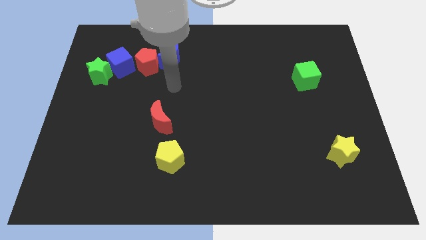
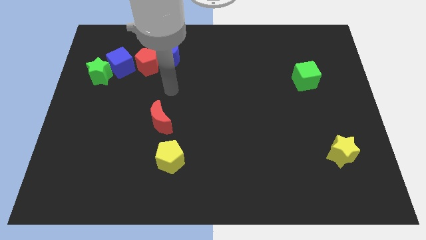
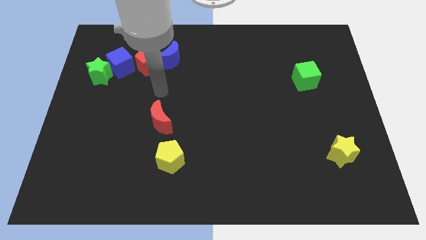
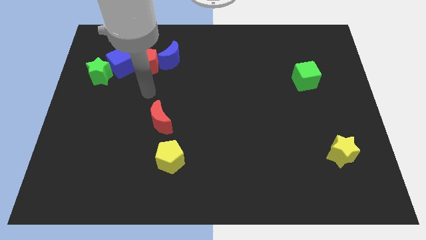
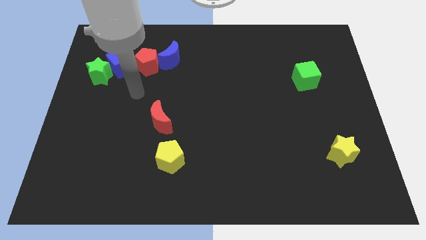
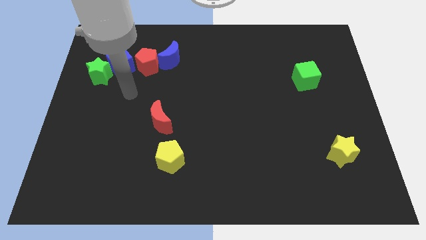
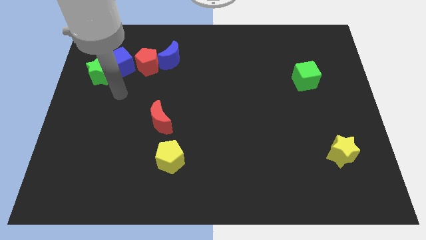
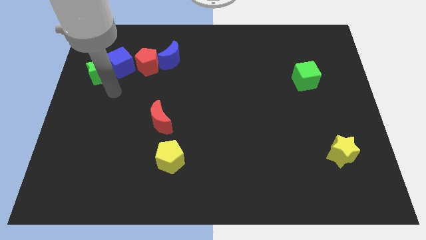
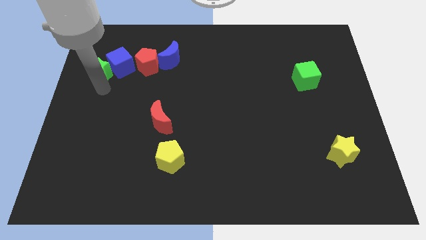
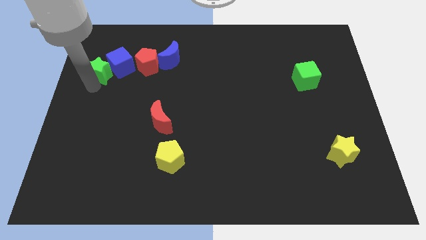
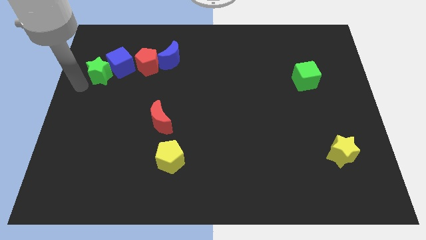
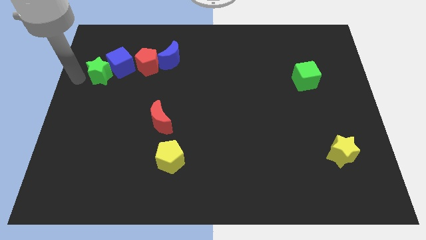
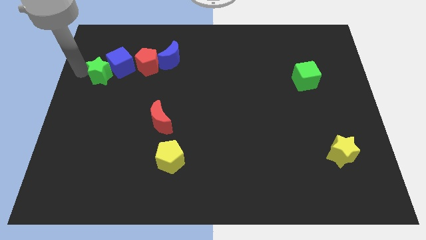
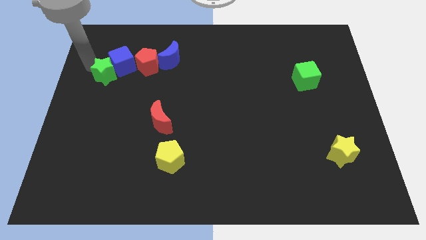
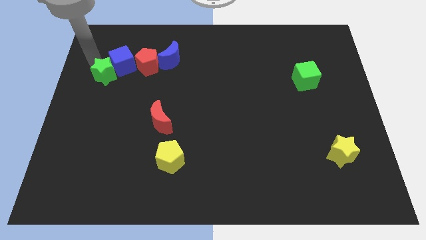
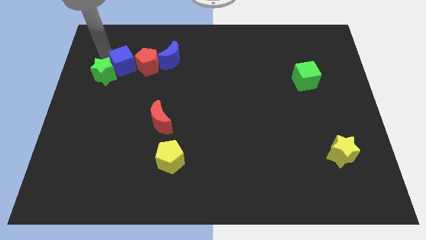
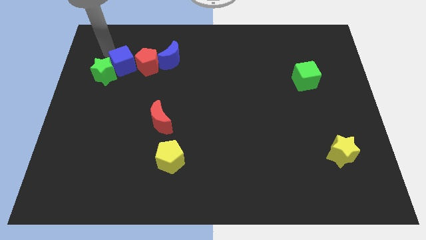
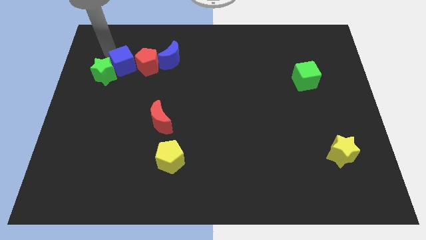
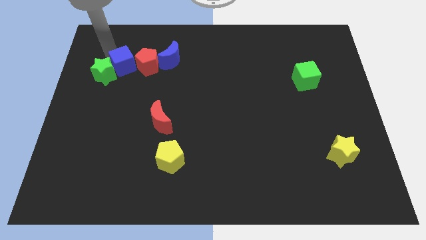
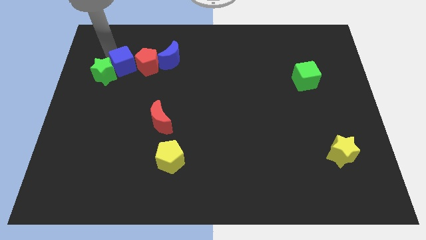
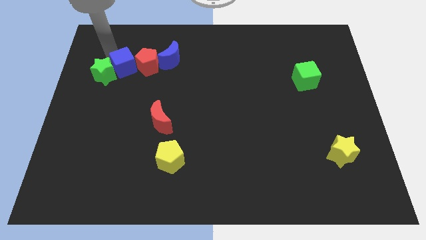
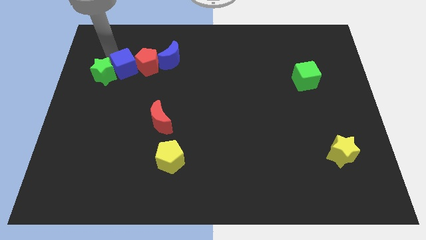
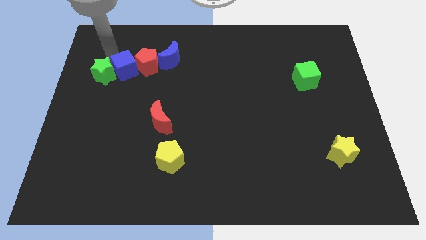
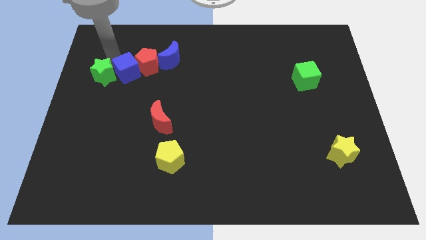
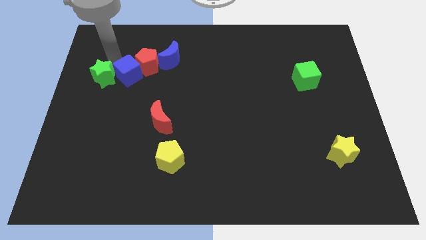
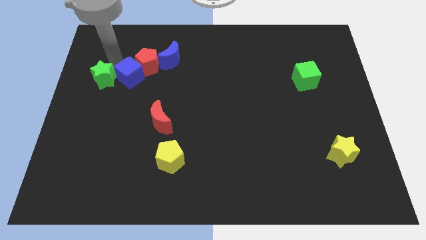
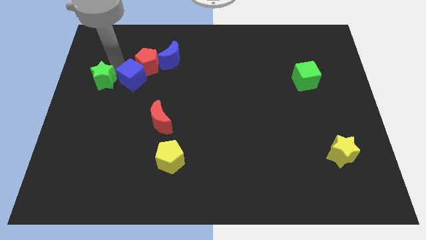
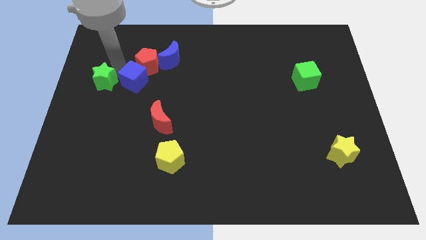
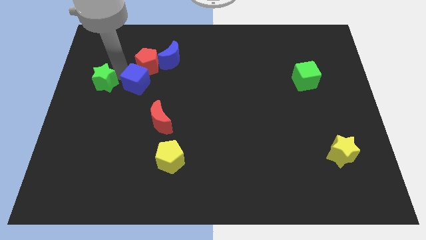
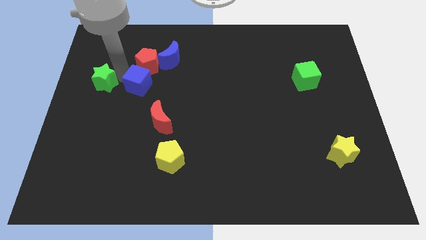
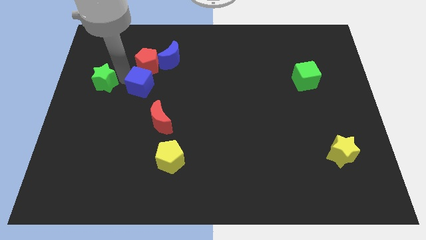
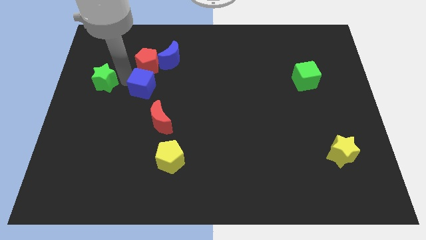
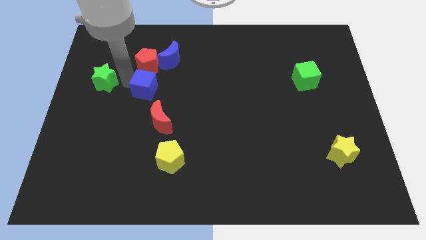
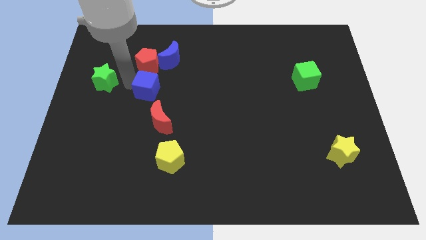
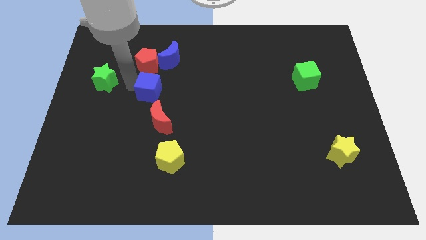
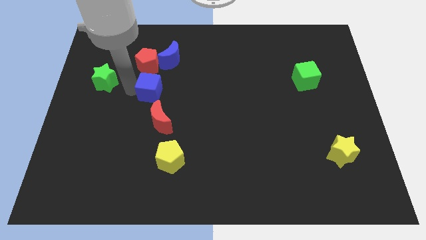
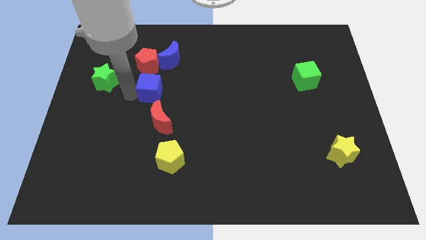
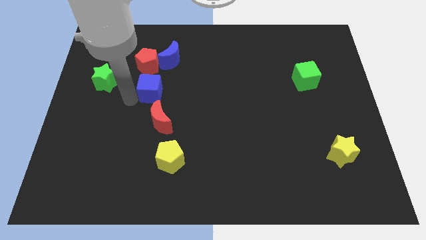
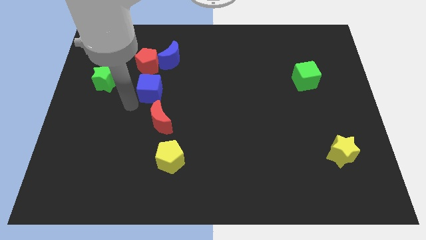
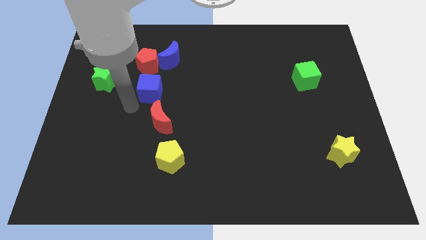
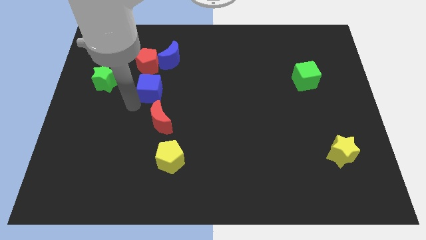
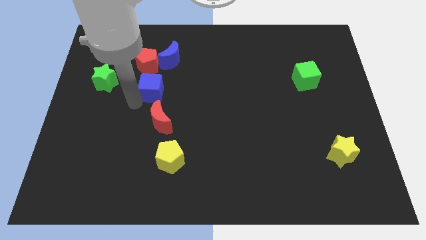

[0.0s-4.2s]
slide the blue cube diagonally down and to the right of the red pentagon

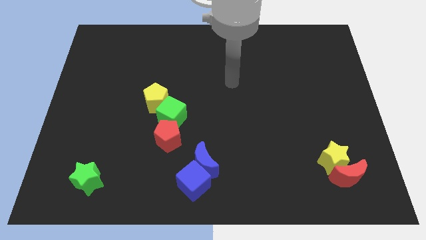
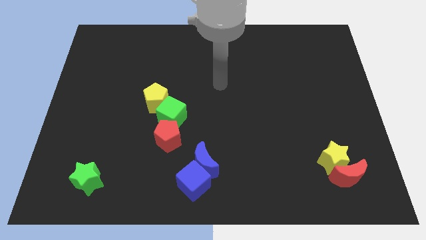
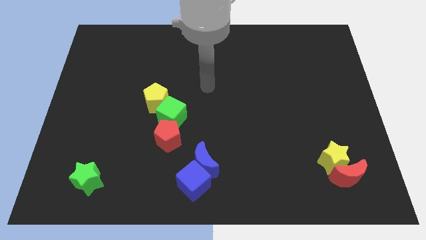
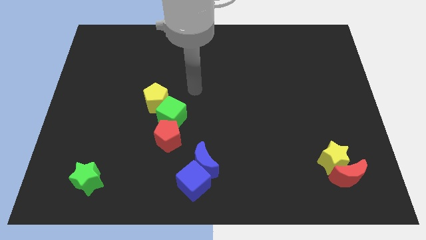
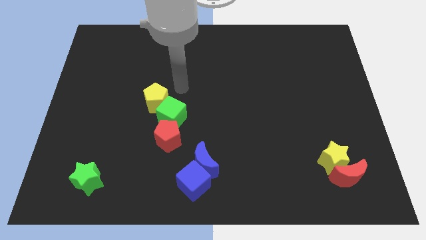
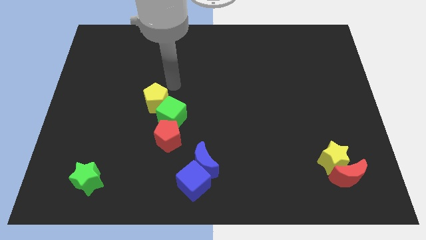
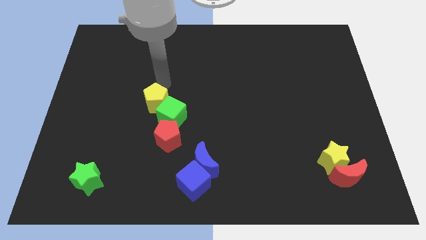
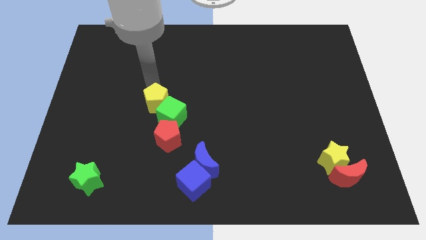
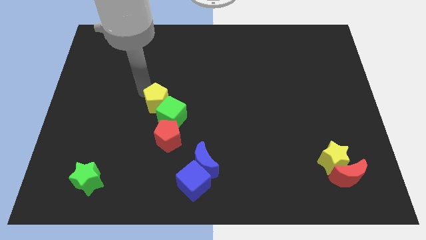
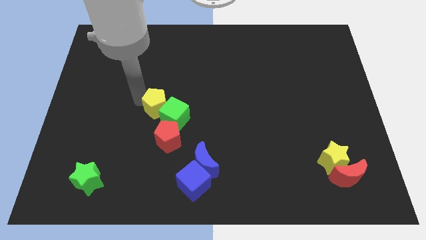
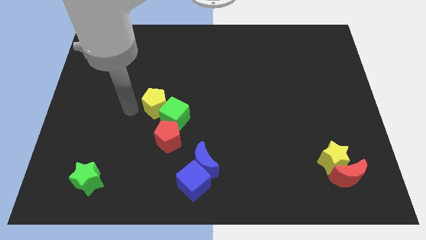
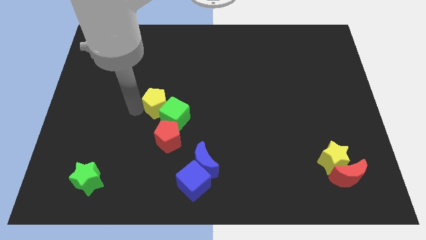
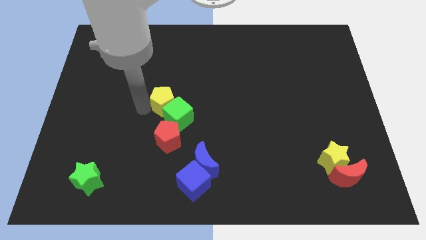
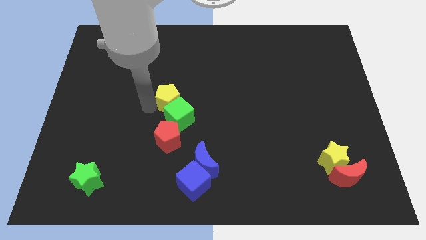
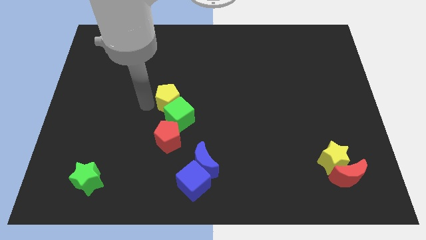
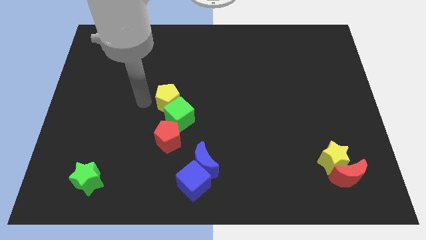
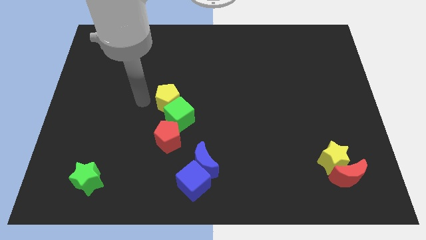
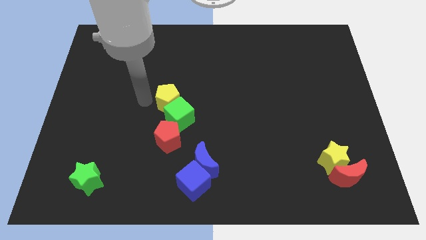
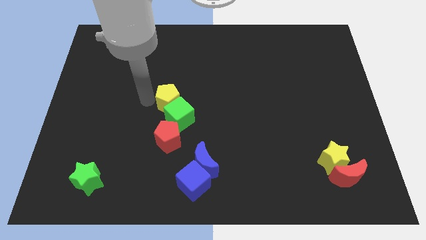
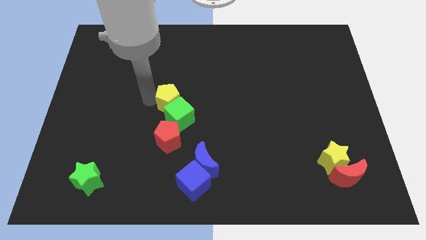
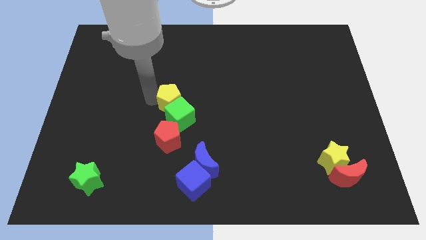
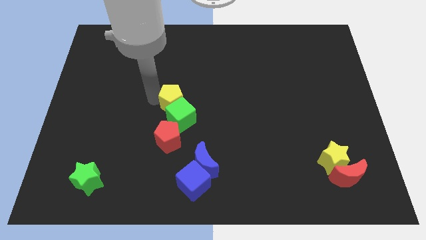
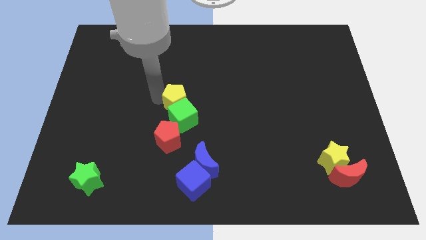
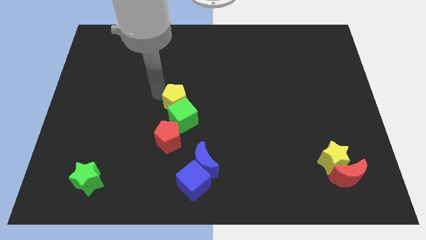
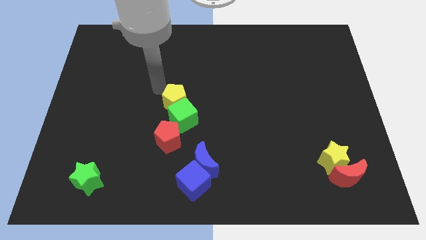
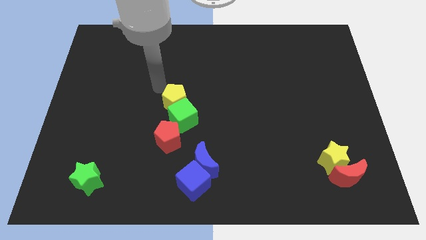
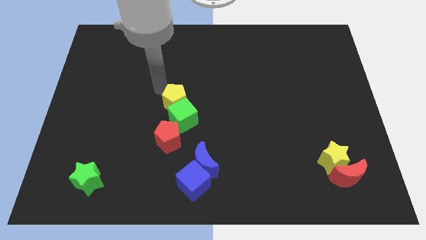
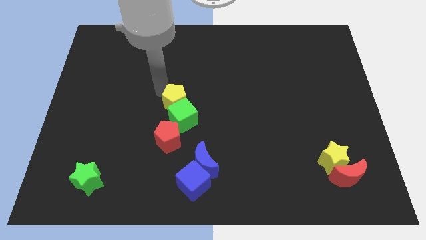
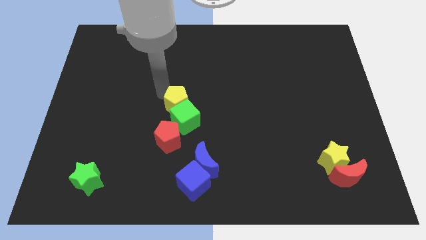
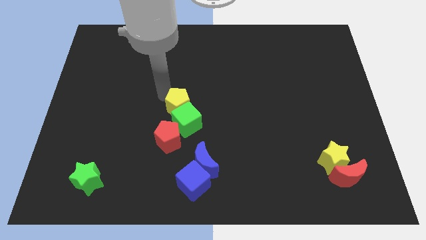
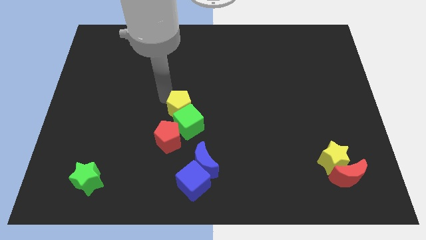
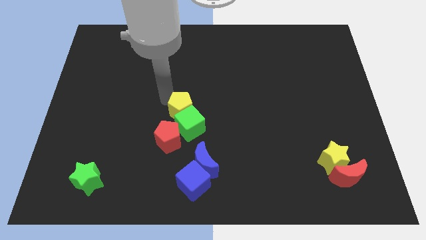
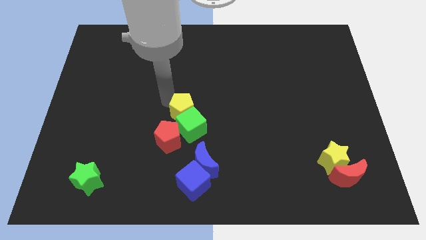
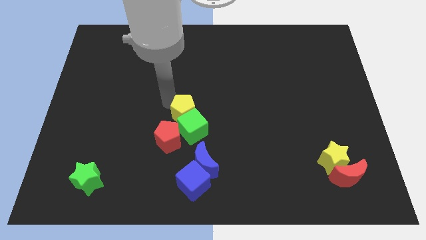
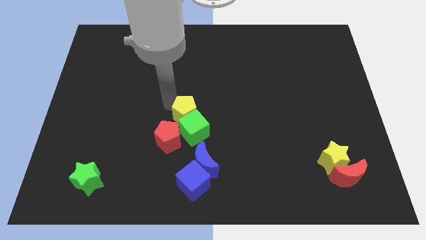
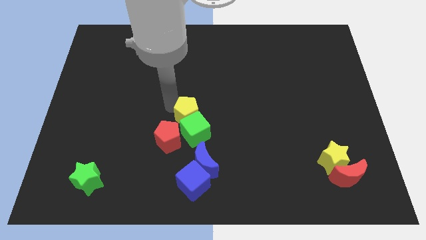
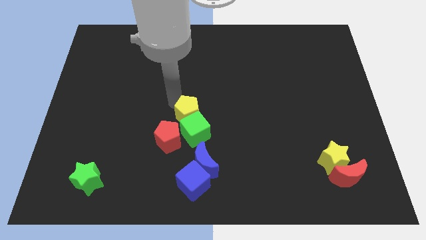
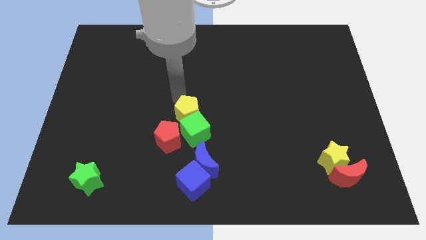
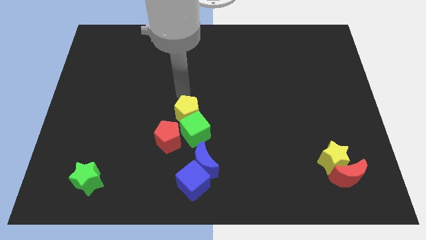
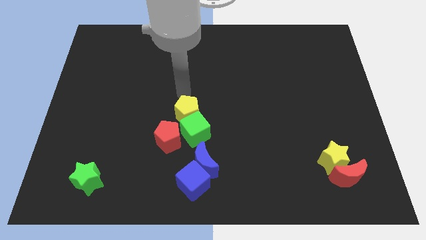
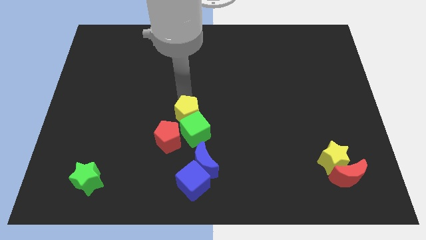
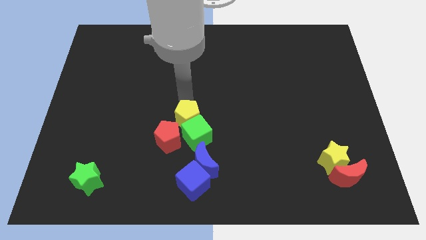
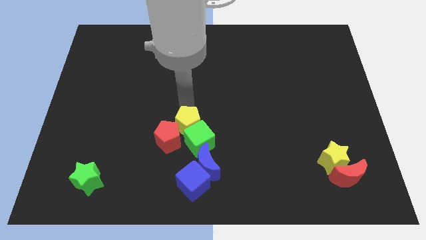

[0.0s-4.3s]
push the yellow pentagon to the top side of the blue cube
